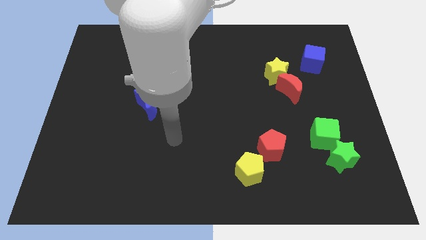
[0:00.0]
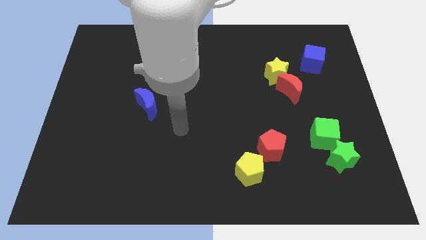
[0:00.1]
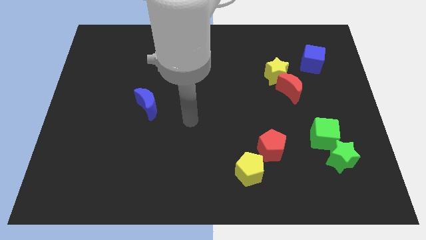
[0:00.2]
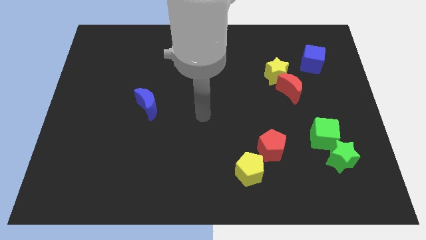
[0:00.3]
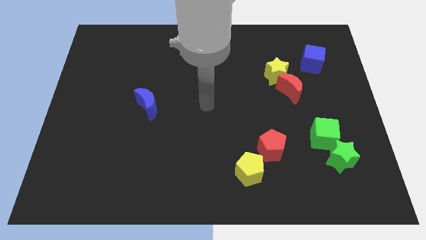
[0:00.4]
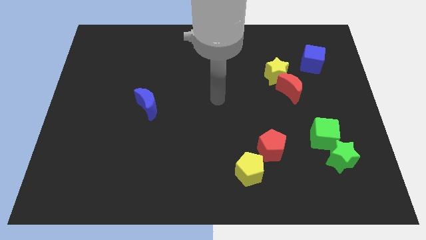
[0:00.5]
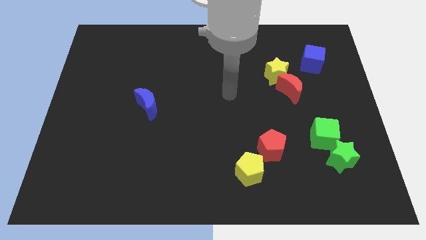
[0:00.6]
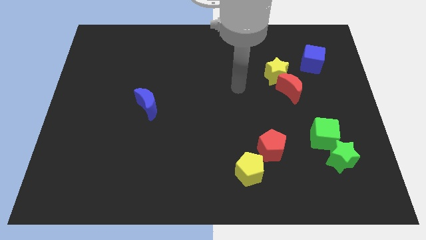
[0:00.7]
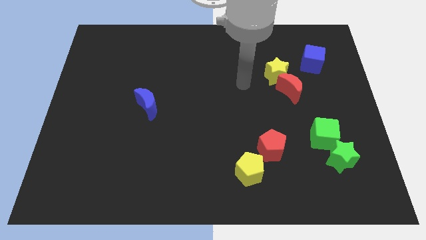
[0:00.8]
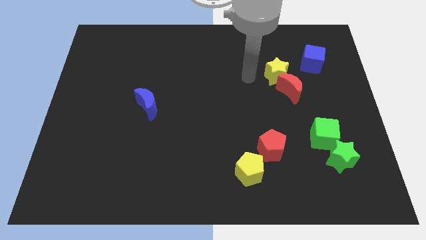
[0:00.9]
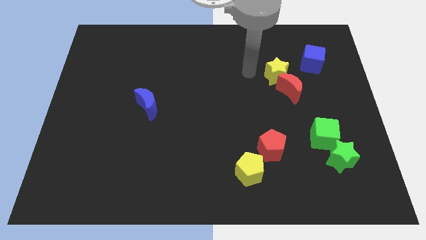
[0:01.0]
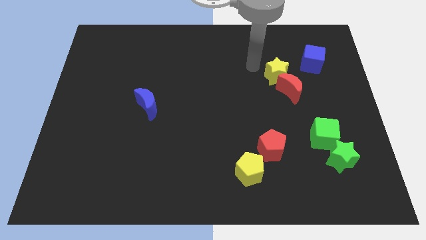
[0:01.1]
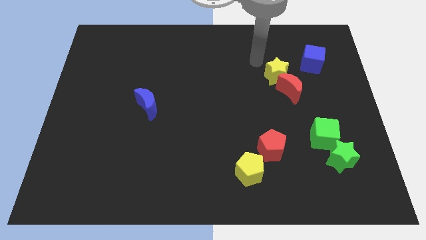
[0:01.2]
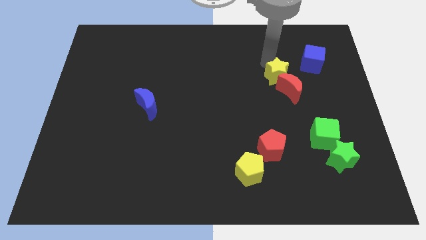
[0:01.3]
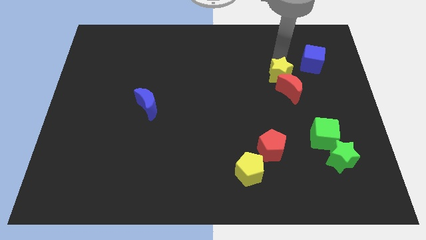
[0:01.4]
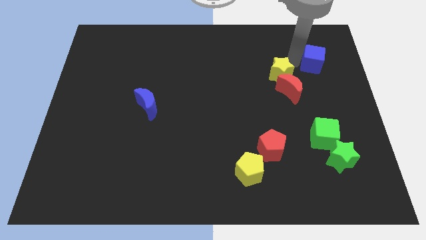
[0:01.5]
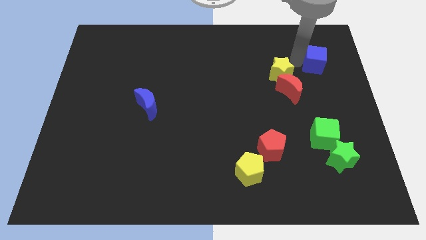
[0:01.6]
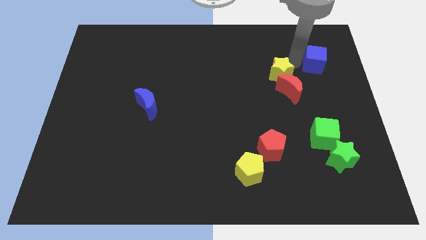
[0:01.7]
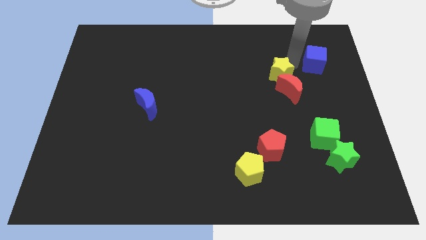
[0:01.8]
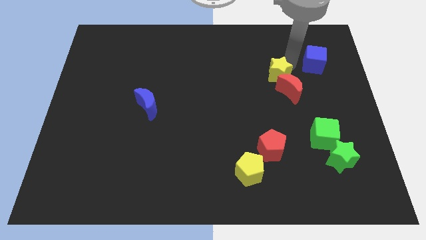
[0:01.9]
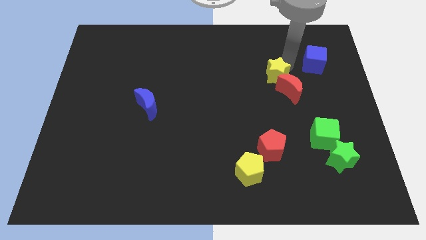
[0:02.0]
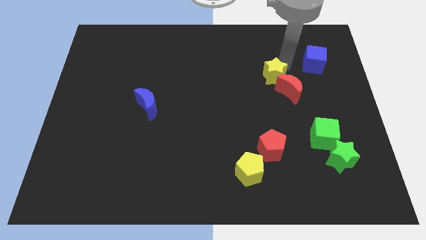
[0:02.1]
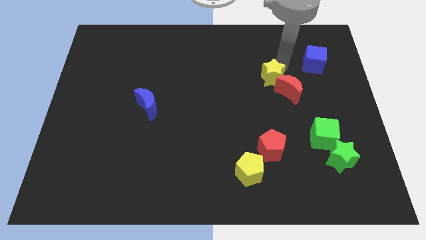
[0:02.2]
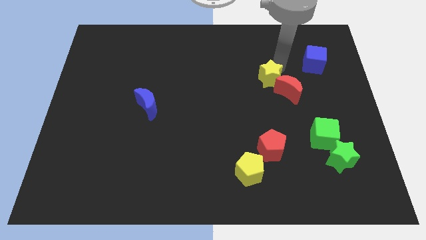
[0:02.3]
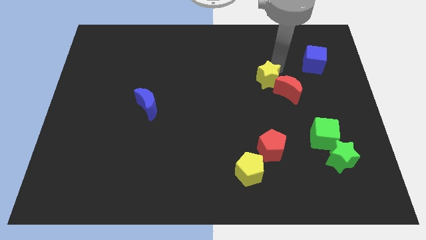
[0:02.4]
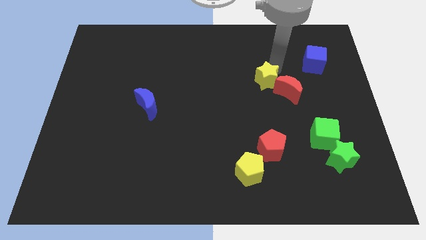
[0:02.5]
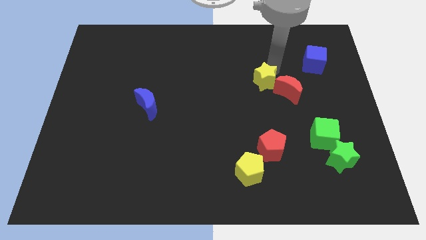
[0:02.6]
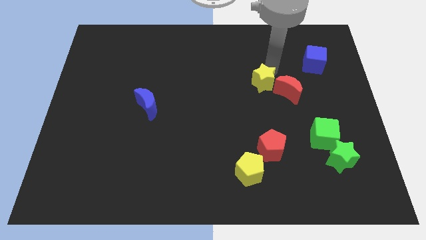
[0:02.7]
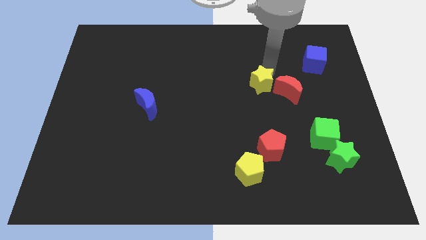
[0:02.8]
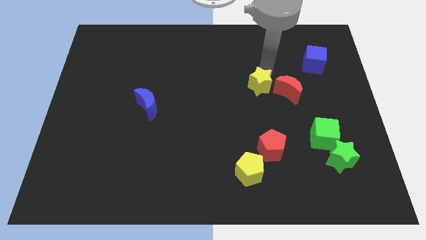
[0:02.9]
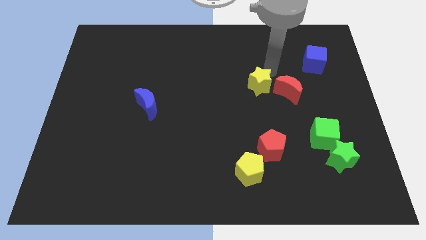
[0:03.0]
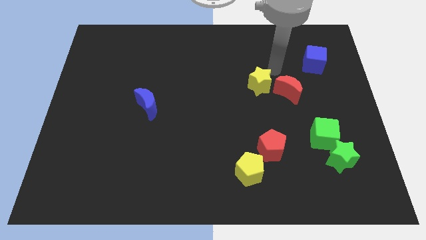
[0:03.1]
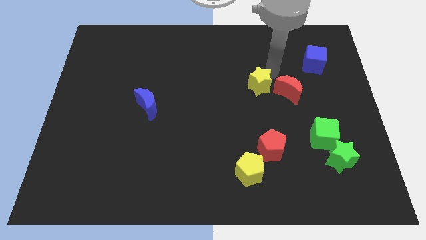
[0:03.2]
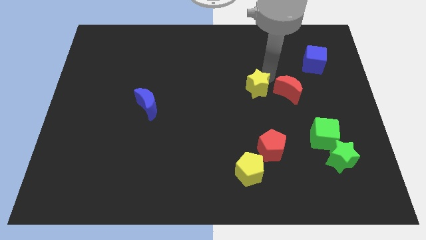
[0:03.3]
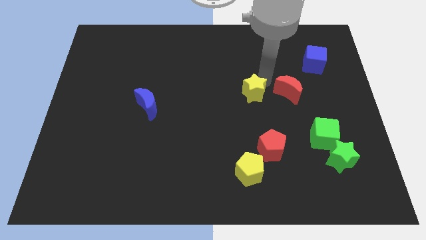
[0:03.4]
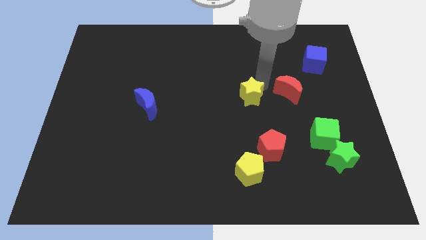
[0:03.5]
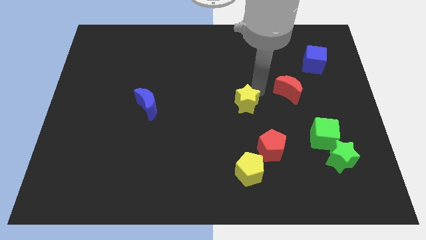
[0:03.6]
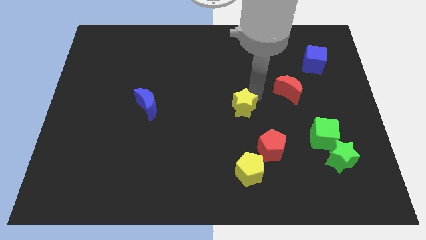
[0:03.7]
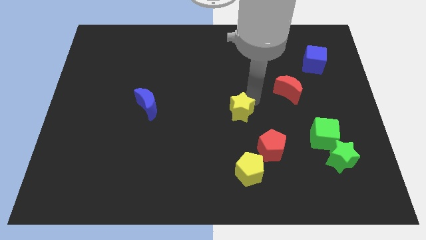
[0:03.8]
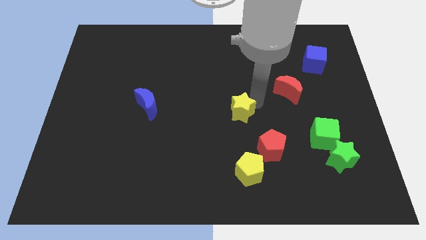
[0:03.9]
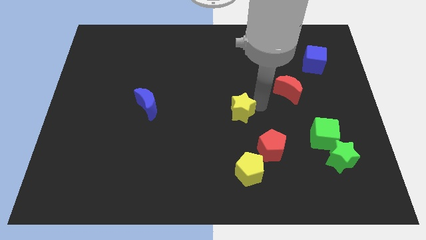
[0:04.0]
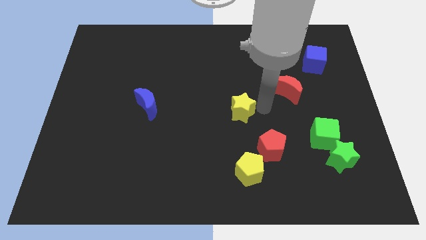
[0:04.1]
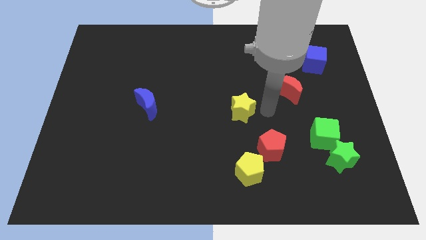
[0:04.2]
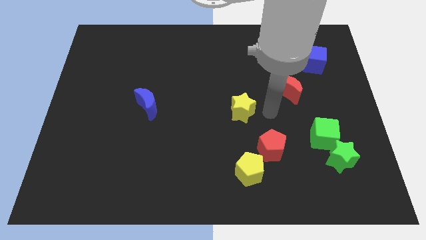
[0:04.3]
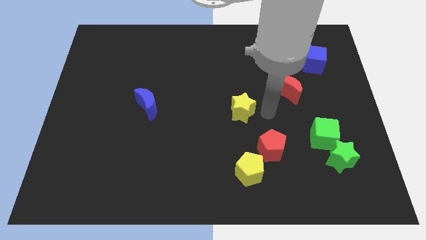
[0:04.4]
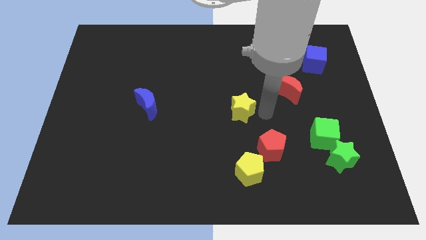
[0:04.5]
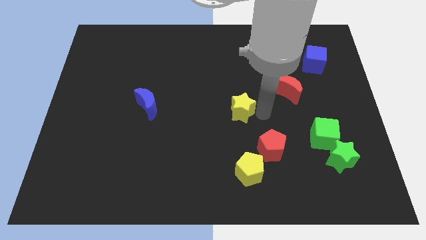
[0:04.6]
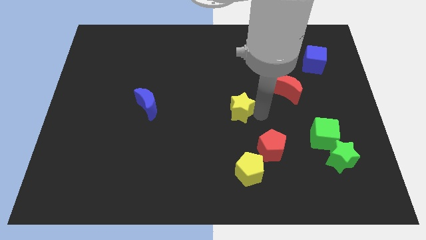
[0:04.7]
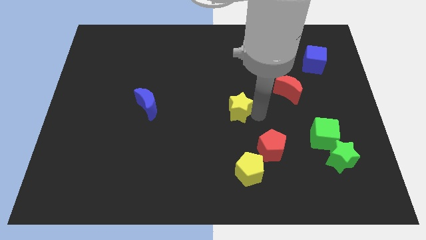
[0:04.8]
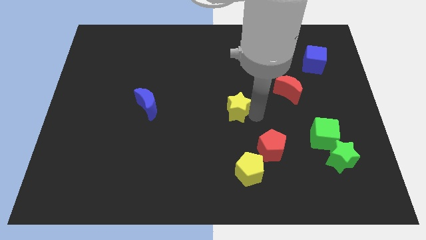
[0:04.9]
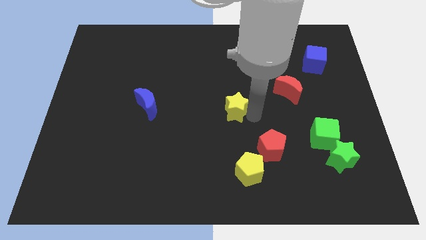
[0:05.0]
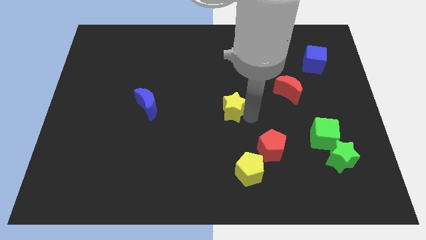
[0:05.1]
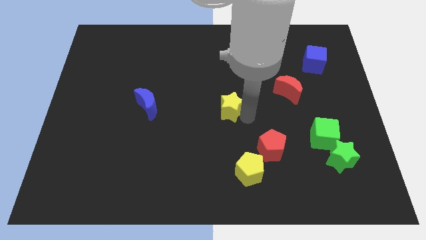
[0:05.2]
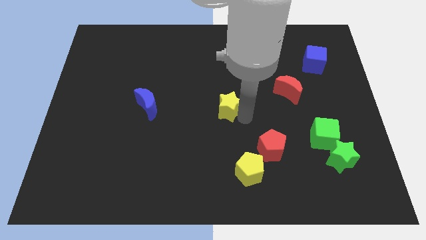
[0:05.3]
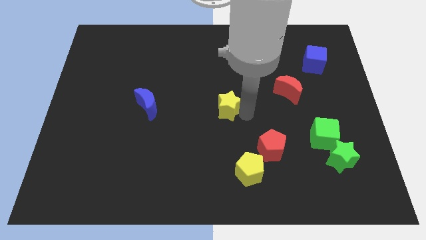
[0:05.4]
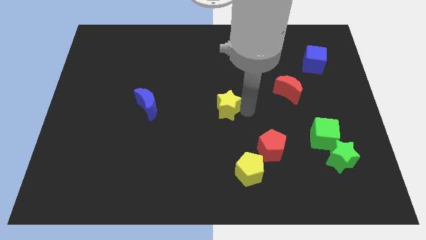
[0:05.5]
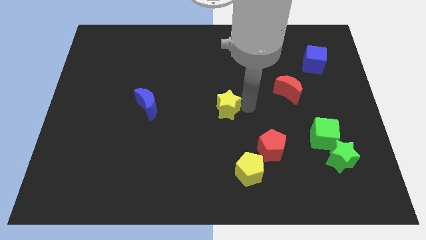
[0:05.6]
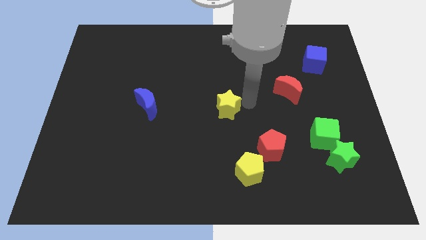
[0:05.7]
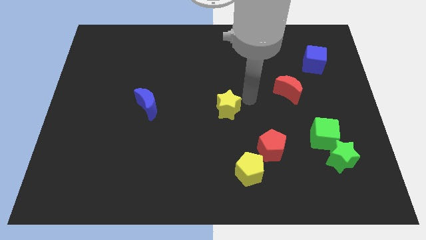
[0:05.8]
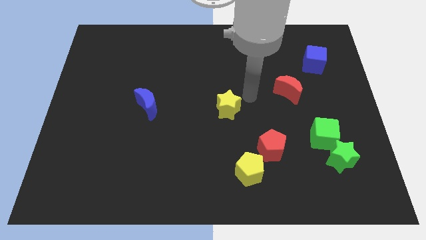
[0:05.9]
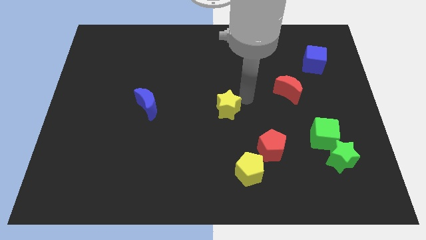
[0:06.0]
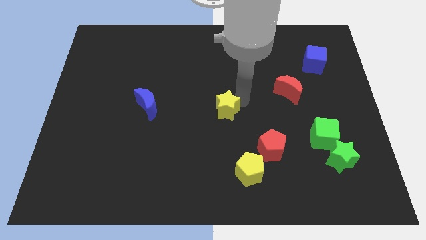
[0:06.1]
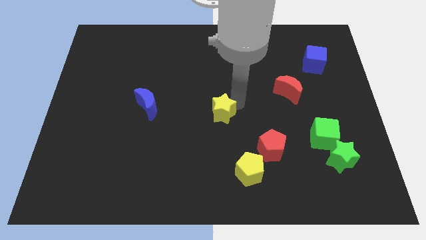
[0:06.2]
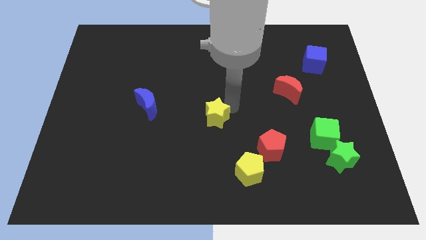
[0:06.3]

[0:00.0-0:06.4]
slide the yellow star down and left diagonally

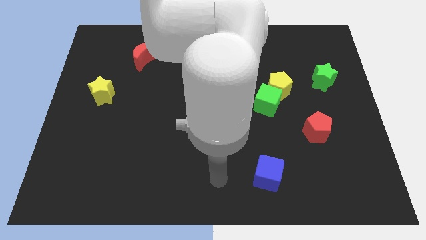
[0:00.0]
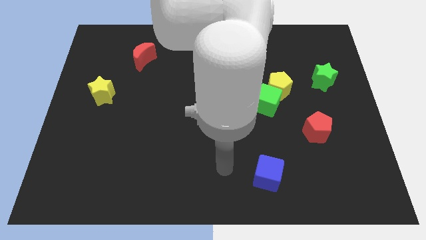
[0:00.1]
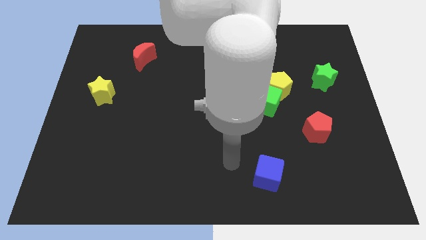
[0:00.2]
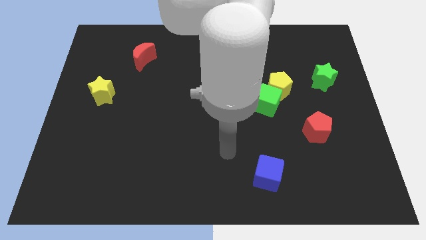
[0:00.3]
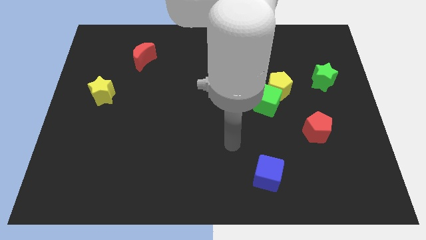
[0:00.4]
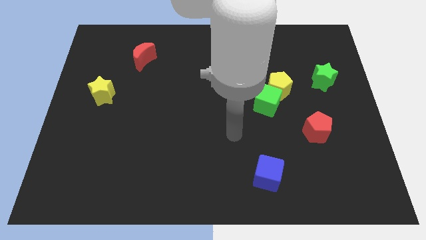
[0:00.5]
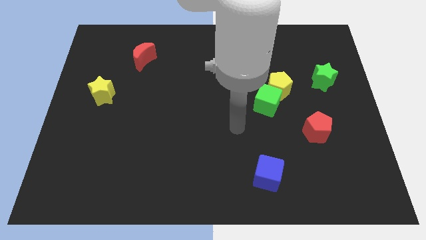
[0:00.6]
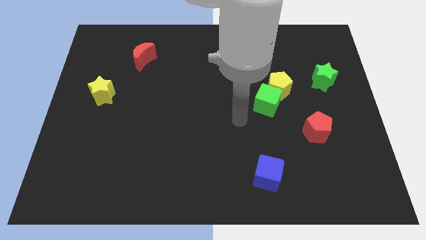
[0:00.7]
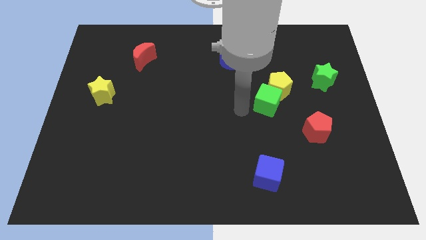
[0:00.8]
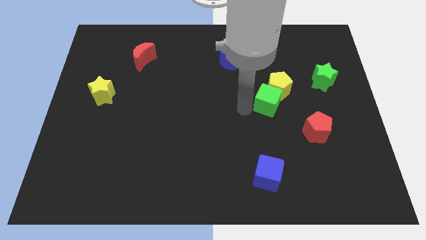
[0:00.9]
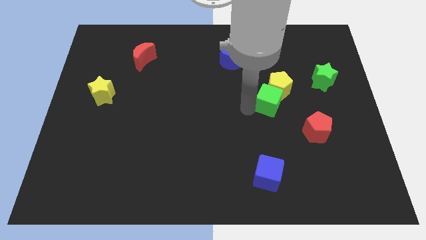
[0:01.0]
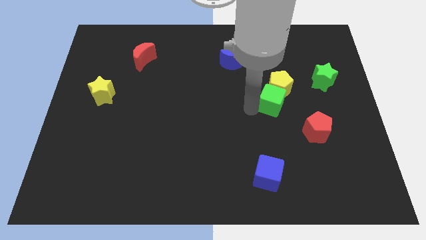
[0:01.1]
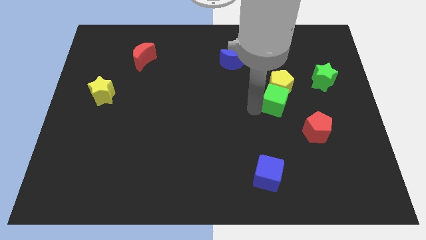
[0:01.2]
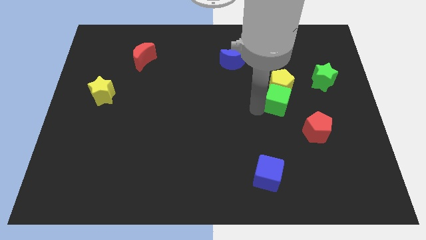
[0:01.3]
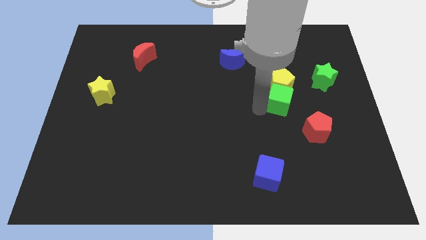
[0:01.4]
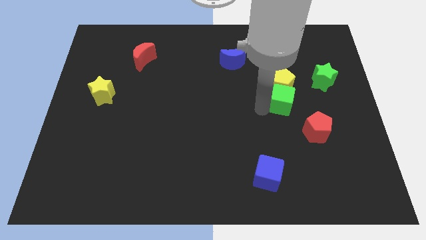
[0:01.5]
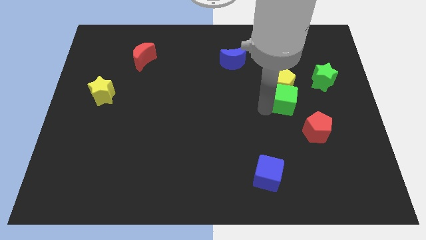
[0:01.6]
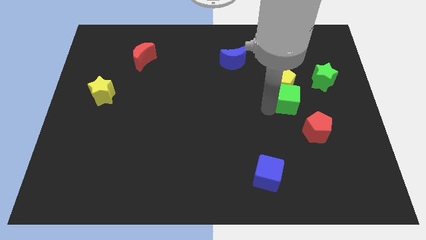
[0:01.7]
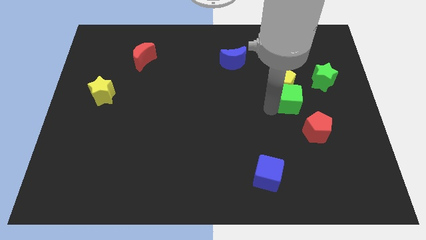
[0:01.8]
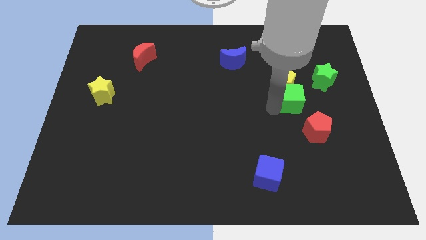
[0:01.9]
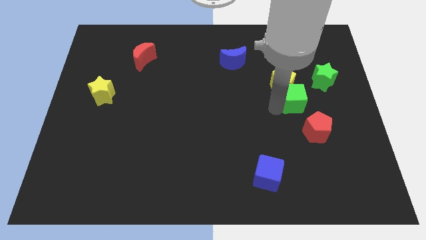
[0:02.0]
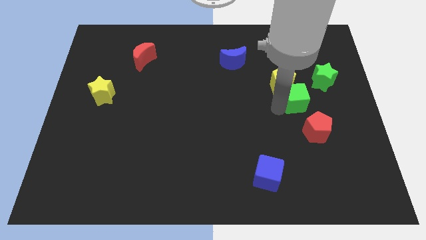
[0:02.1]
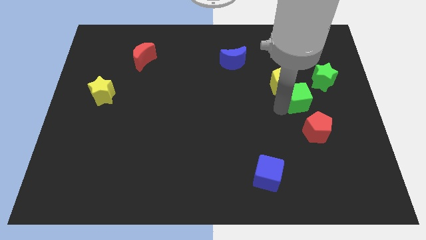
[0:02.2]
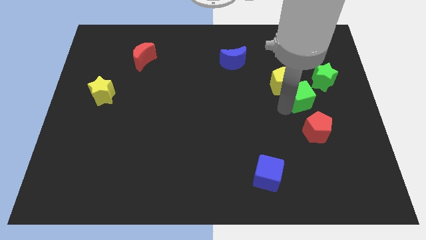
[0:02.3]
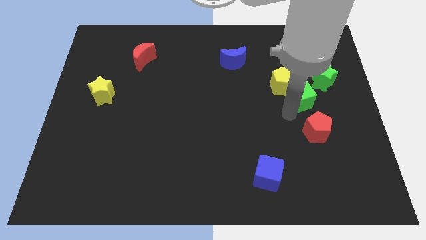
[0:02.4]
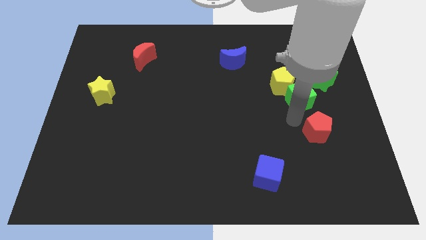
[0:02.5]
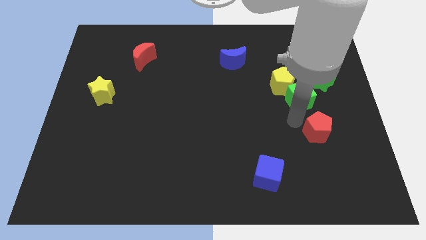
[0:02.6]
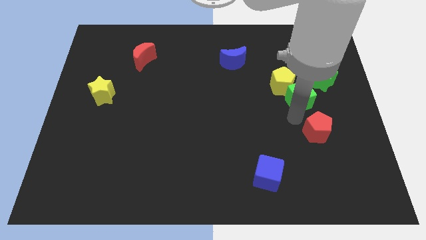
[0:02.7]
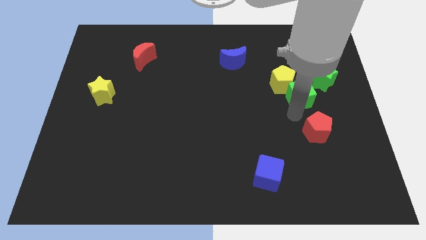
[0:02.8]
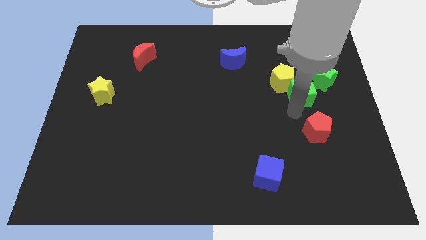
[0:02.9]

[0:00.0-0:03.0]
slightly slide the green cube diagonally upwards and to the right
